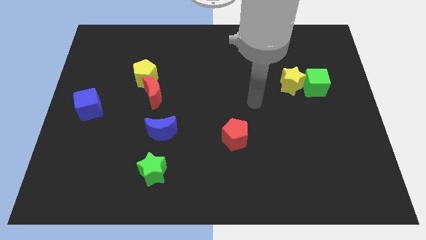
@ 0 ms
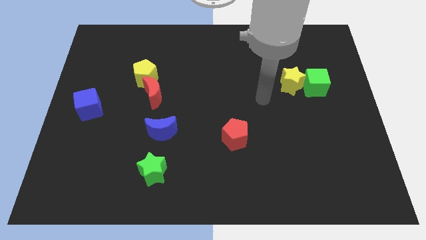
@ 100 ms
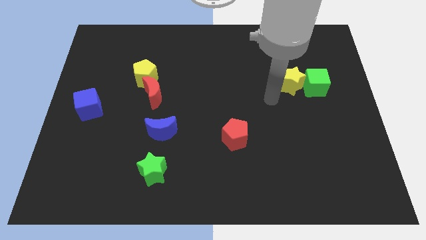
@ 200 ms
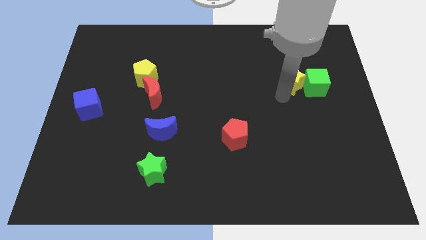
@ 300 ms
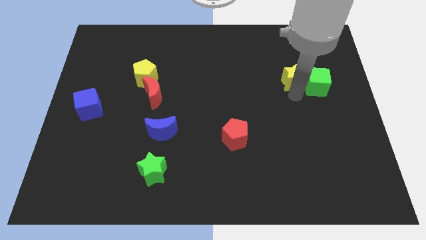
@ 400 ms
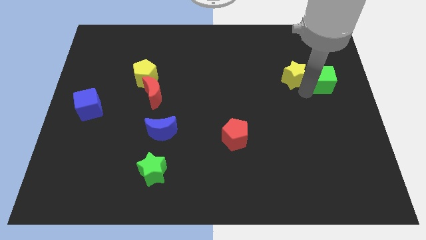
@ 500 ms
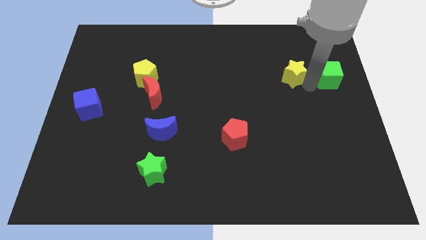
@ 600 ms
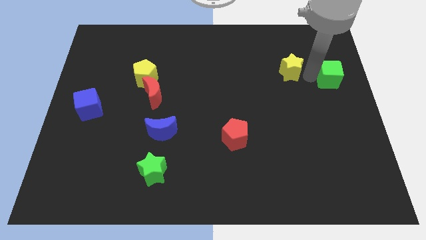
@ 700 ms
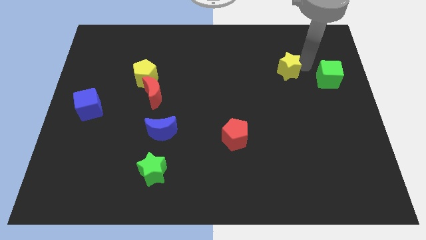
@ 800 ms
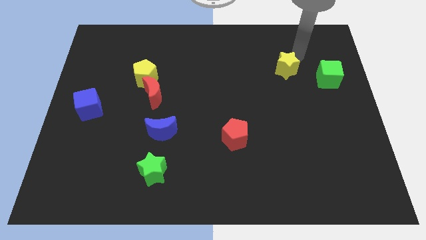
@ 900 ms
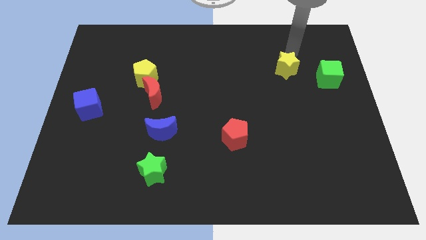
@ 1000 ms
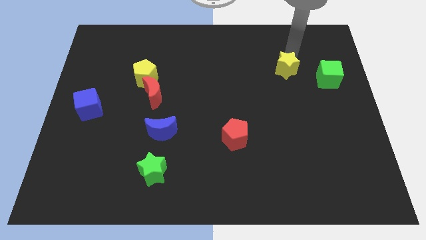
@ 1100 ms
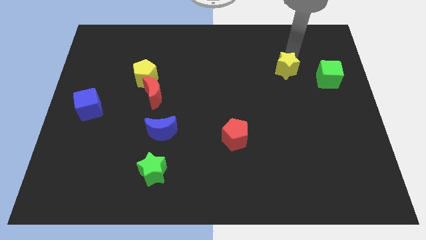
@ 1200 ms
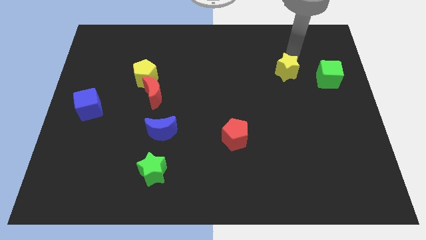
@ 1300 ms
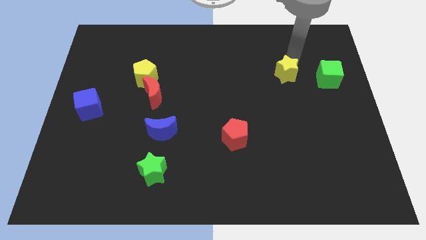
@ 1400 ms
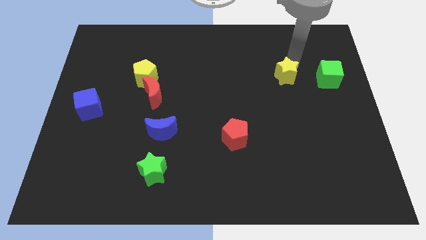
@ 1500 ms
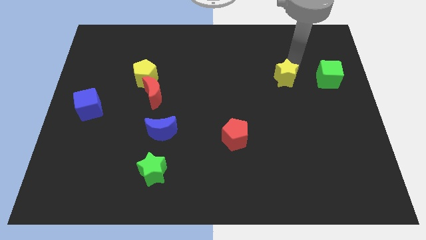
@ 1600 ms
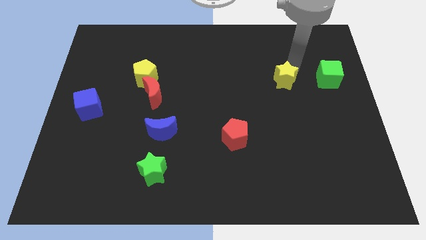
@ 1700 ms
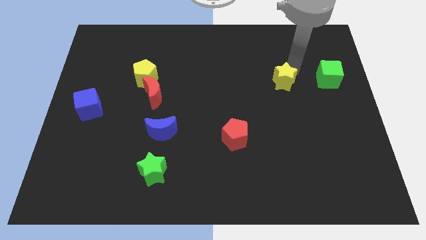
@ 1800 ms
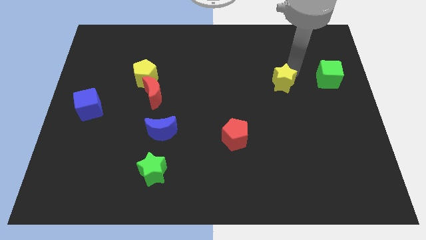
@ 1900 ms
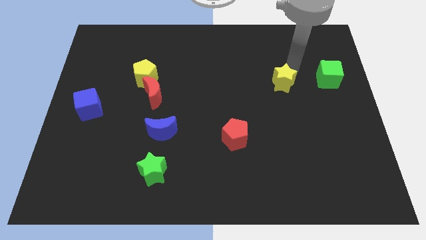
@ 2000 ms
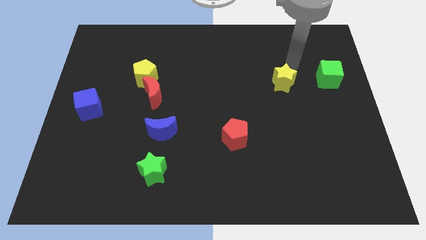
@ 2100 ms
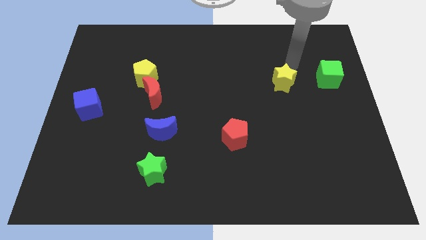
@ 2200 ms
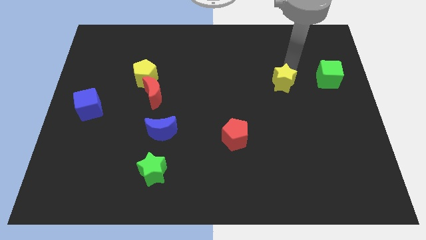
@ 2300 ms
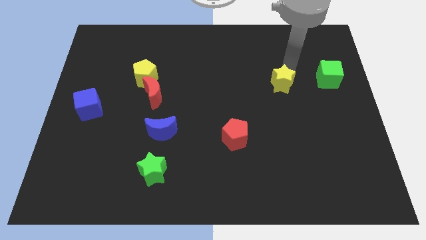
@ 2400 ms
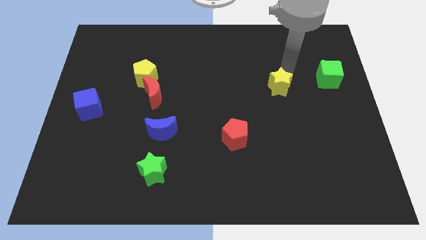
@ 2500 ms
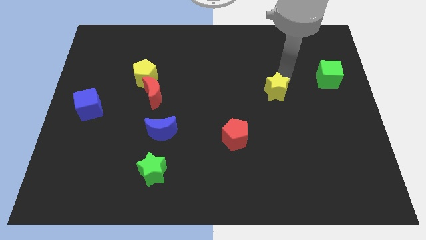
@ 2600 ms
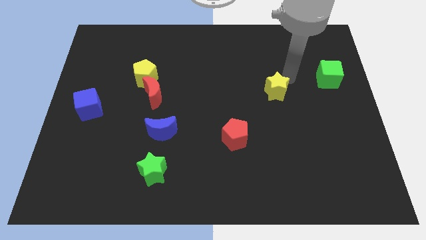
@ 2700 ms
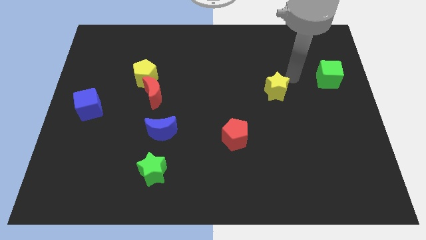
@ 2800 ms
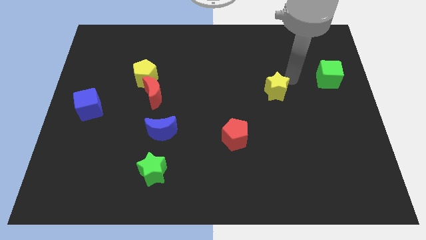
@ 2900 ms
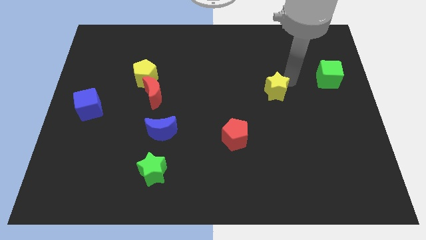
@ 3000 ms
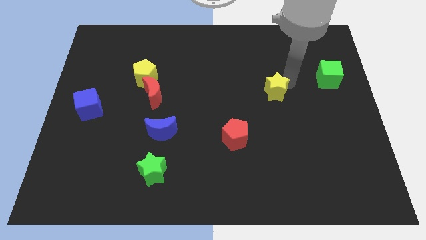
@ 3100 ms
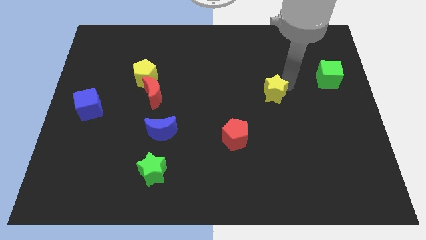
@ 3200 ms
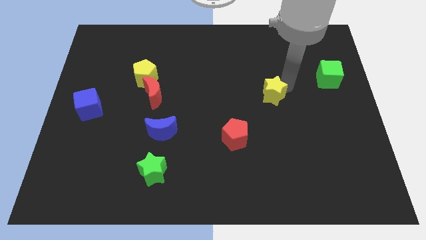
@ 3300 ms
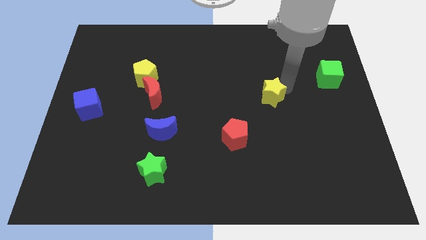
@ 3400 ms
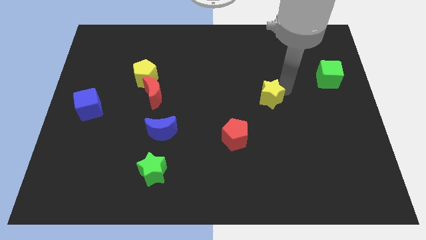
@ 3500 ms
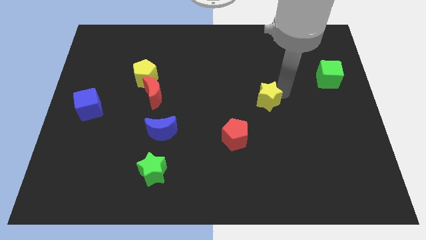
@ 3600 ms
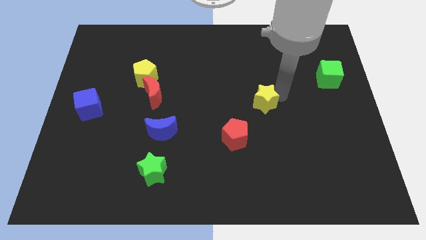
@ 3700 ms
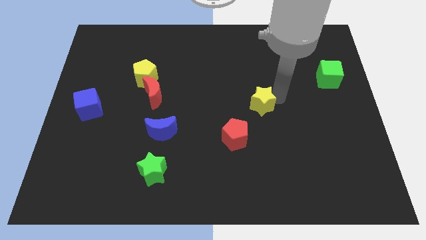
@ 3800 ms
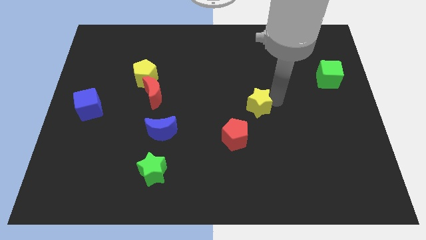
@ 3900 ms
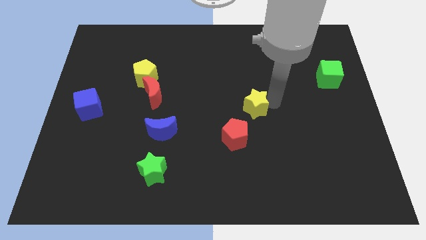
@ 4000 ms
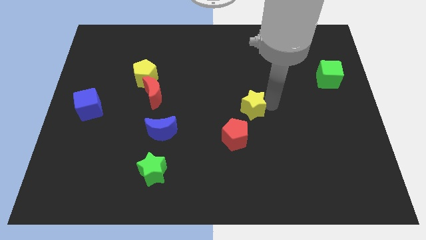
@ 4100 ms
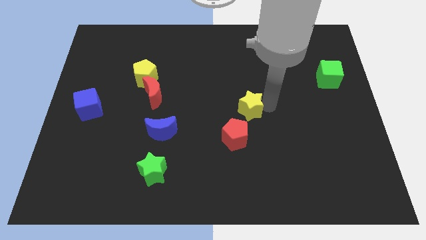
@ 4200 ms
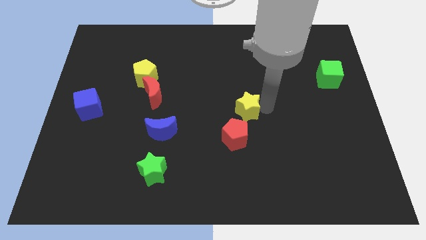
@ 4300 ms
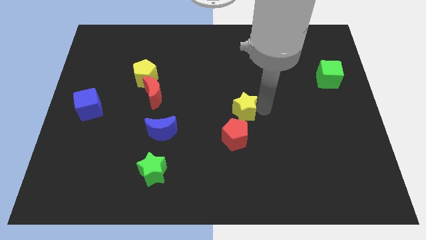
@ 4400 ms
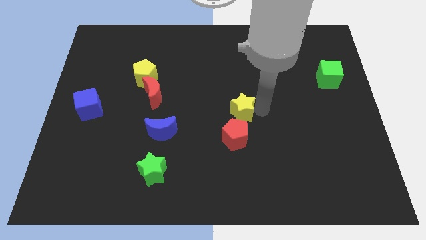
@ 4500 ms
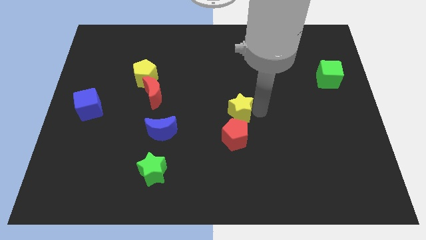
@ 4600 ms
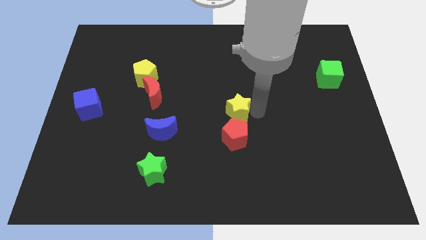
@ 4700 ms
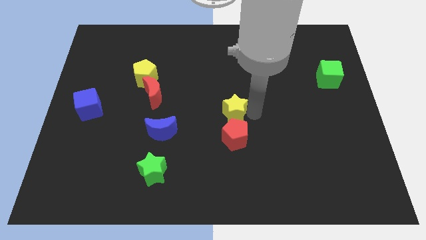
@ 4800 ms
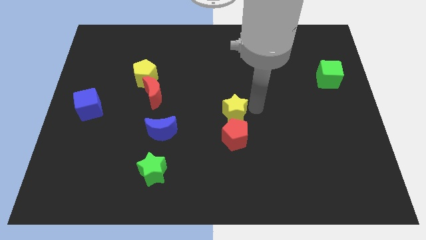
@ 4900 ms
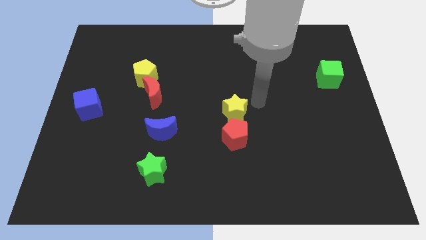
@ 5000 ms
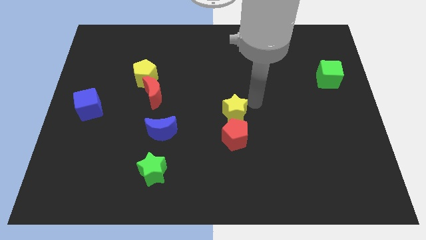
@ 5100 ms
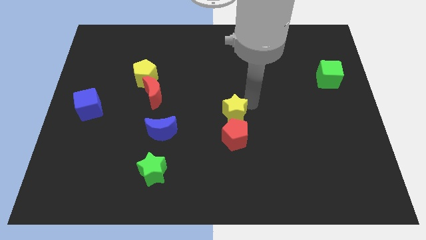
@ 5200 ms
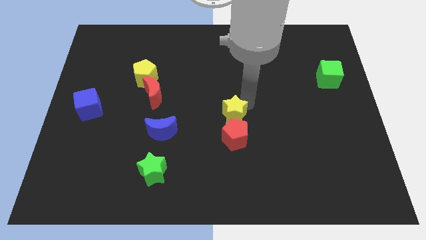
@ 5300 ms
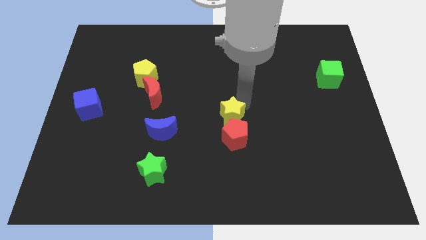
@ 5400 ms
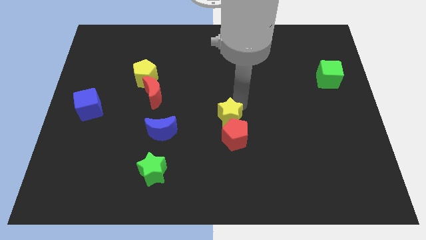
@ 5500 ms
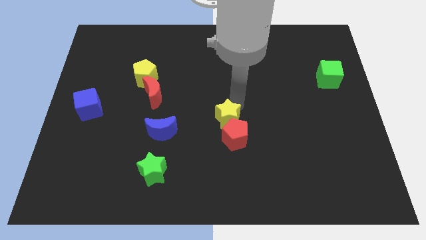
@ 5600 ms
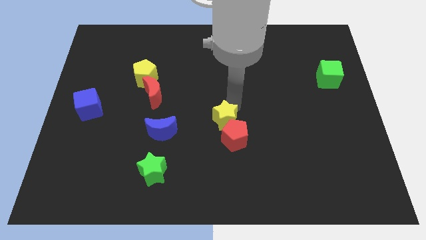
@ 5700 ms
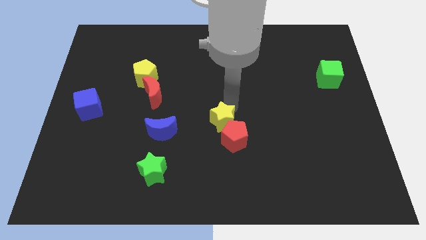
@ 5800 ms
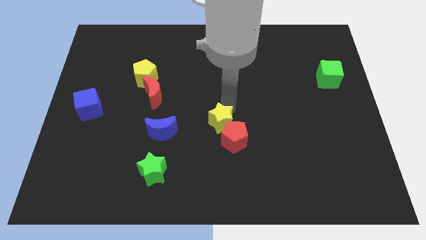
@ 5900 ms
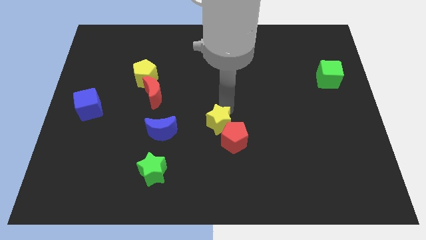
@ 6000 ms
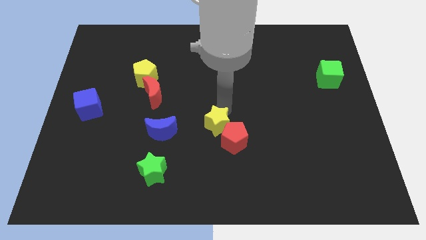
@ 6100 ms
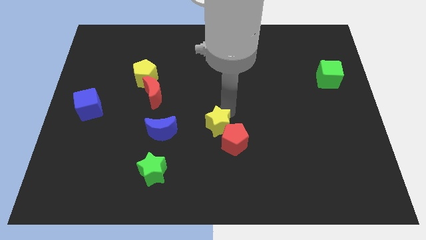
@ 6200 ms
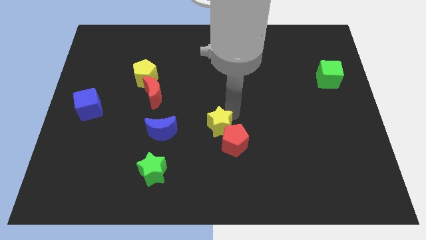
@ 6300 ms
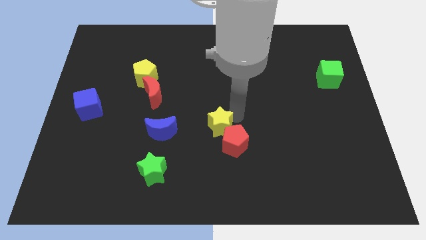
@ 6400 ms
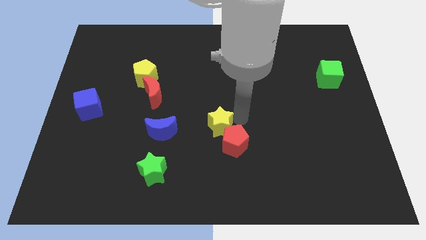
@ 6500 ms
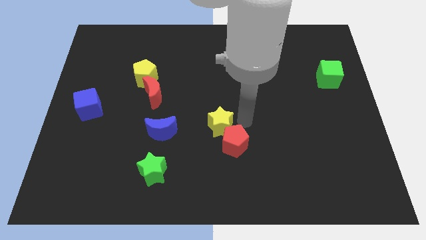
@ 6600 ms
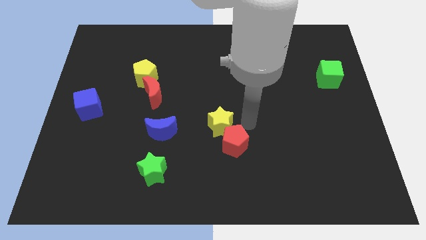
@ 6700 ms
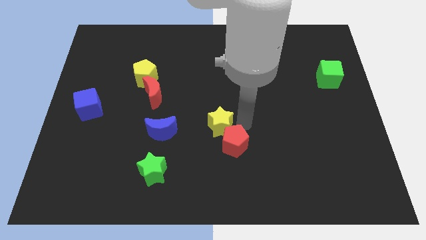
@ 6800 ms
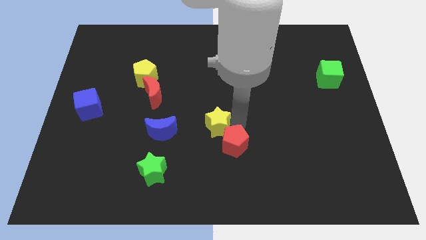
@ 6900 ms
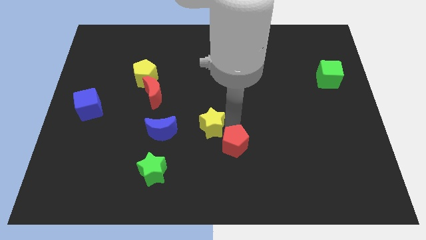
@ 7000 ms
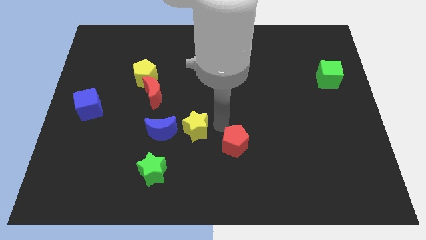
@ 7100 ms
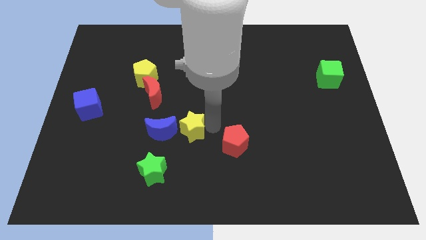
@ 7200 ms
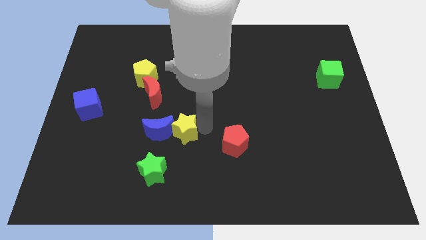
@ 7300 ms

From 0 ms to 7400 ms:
push the yellow star to the blue moon
